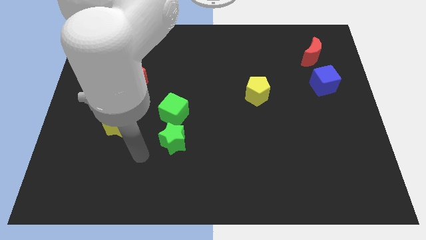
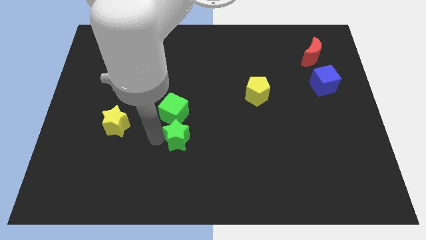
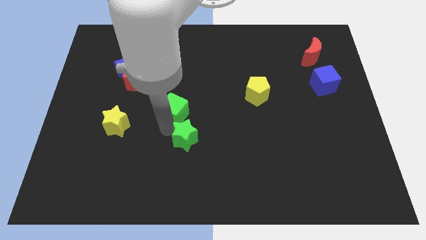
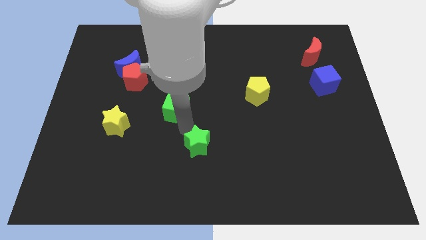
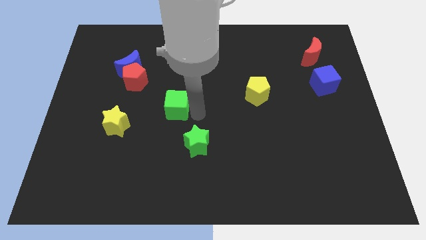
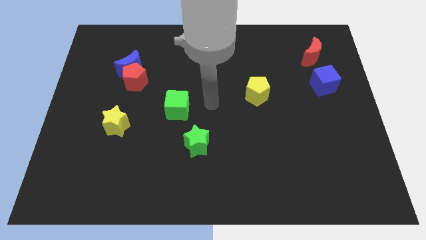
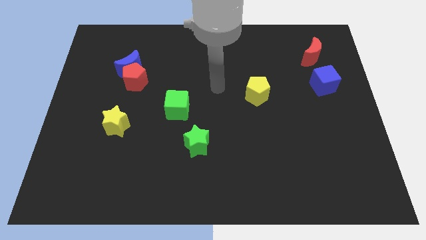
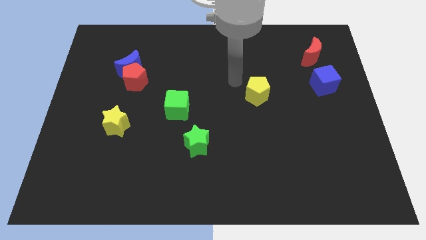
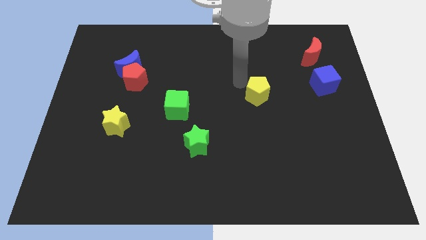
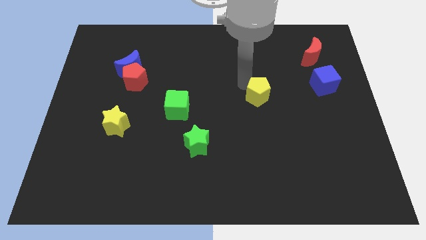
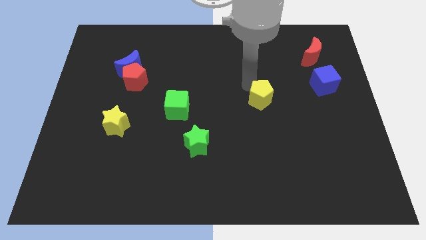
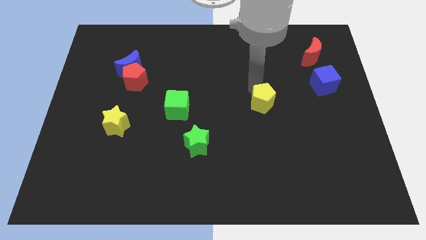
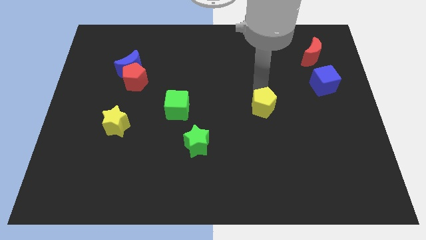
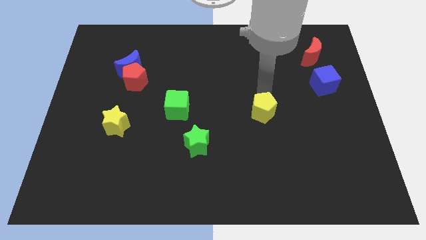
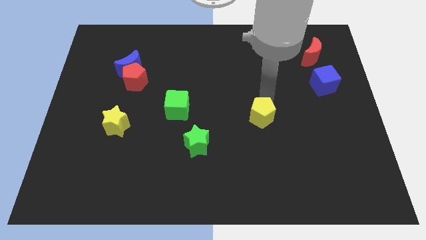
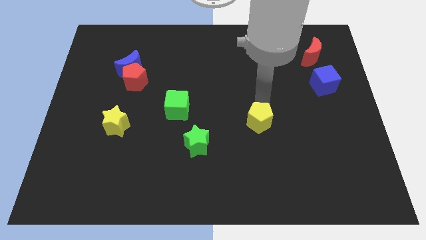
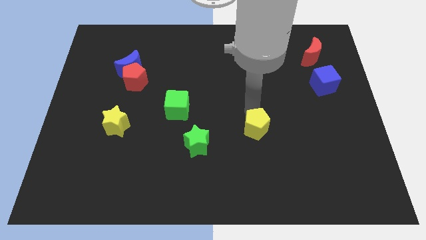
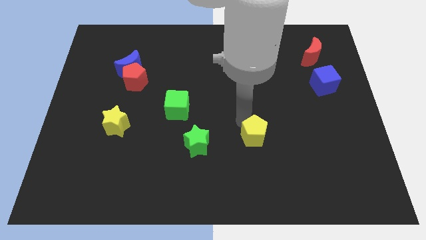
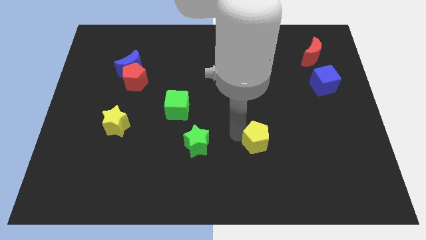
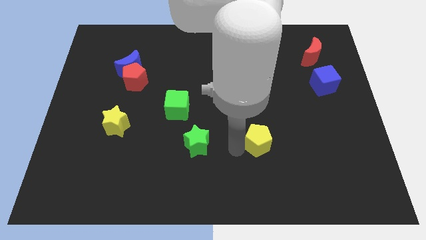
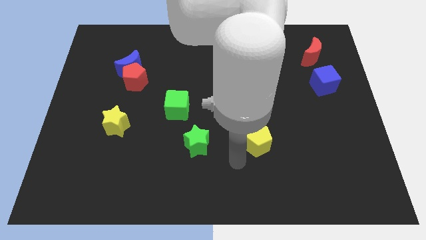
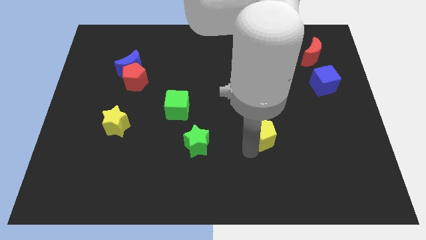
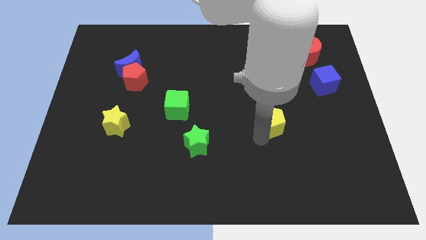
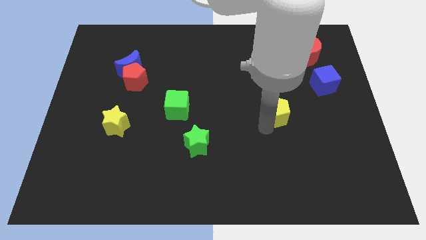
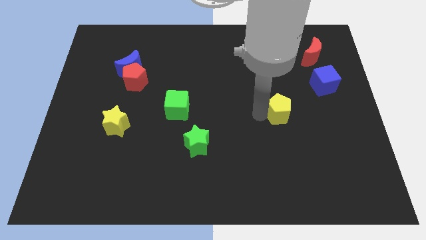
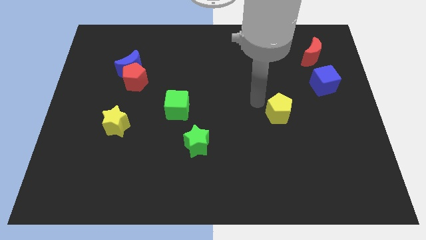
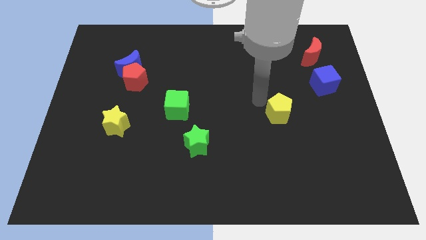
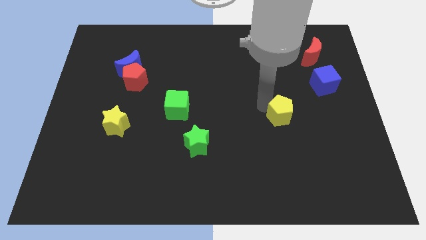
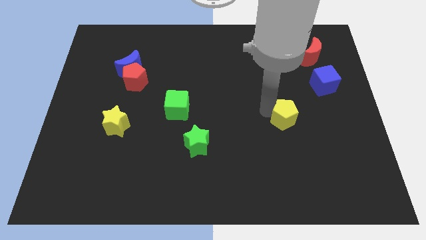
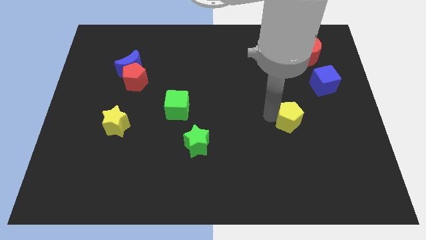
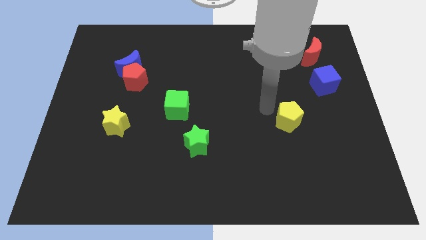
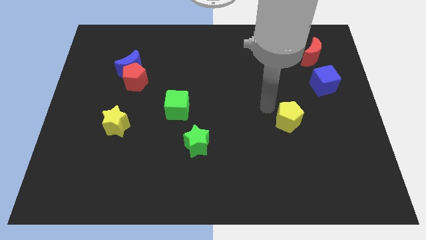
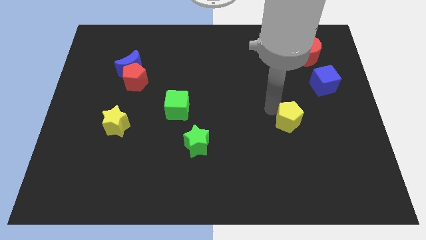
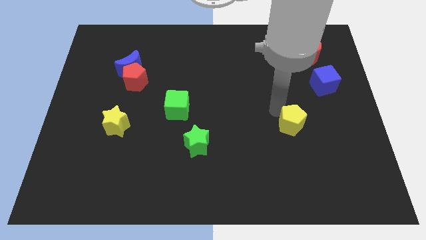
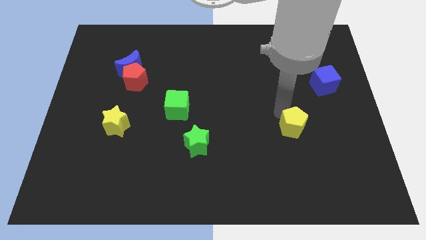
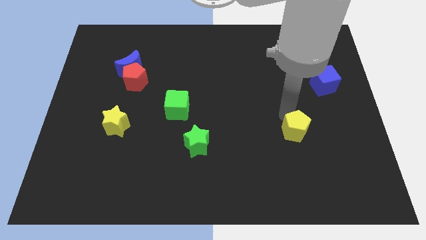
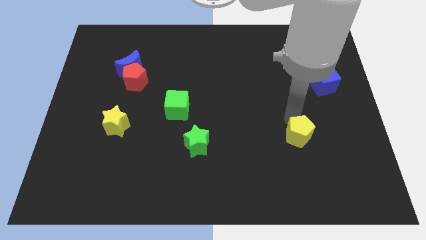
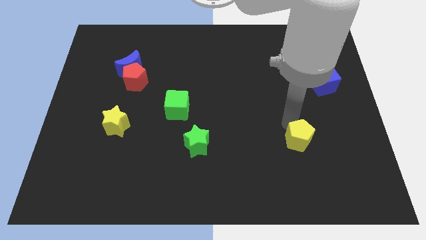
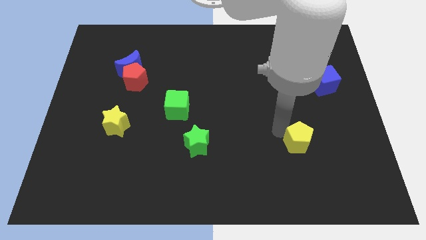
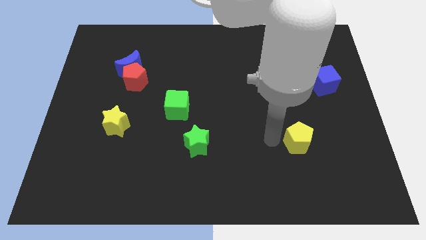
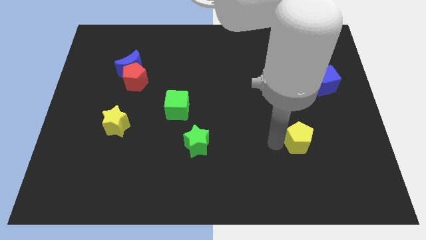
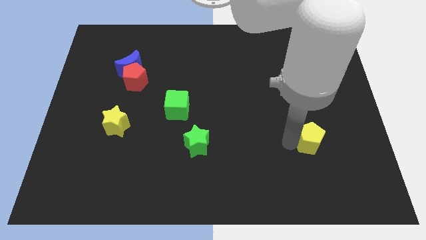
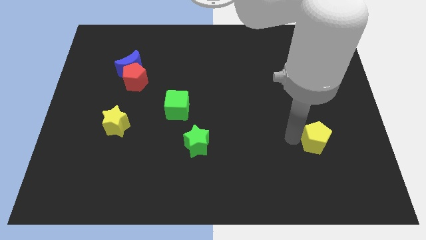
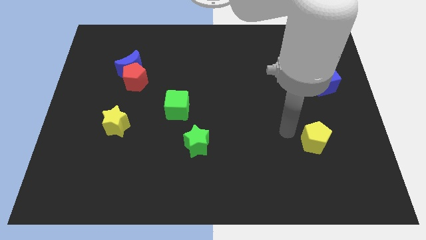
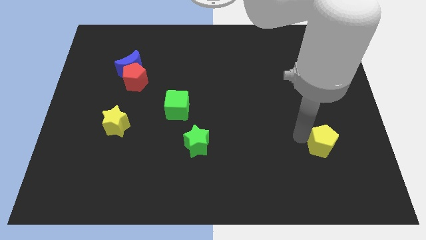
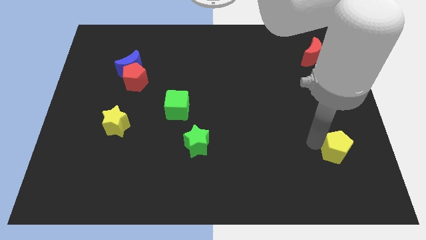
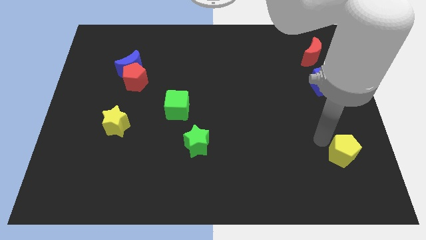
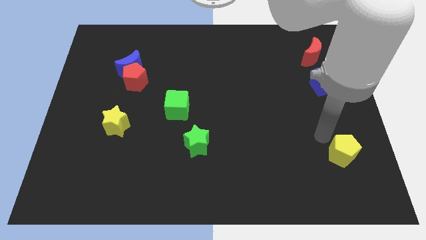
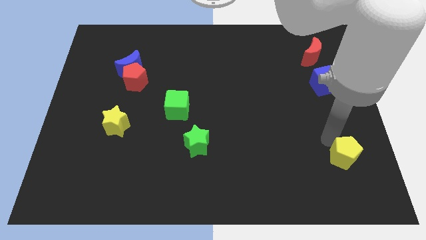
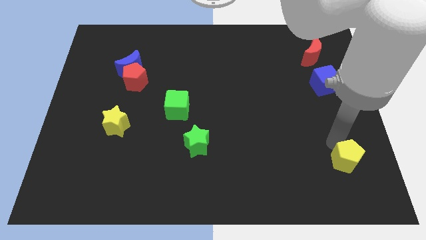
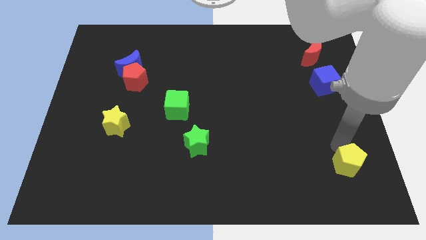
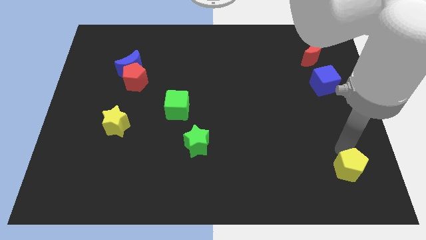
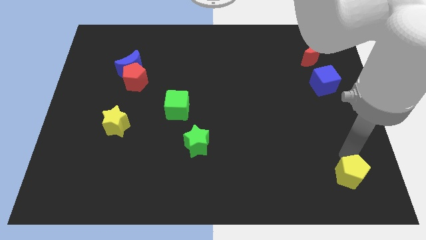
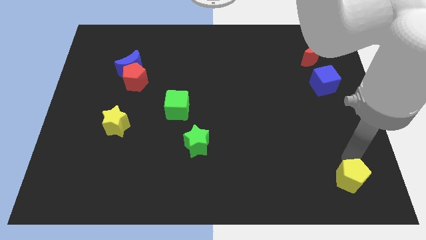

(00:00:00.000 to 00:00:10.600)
put the yellow pentagon to the bottom right
